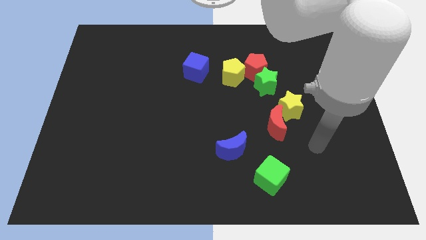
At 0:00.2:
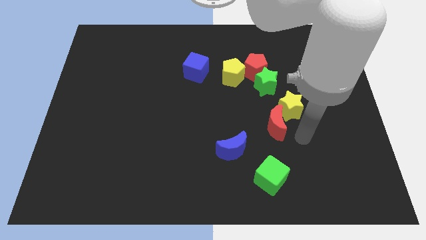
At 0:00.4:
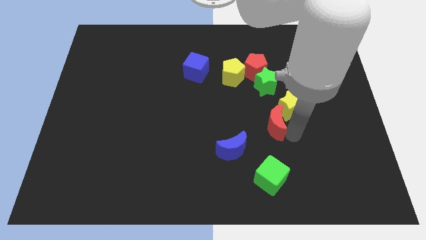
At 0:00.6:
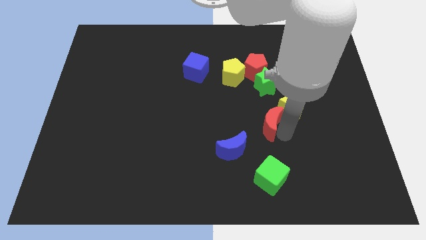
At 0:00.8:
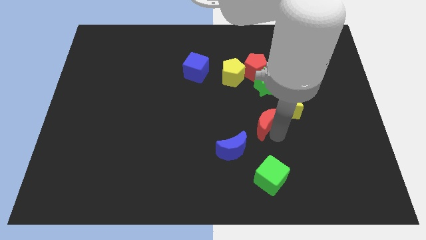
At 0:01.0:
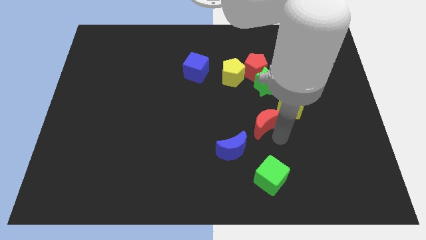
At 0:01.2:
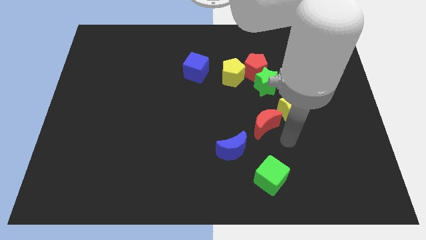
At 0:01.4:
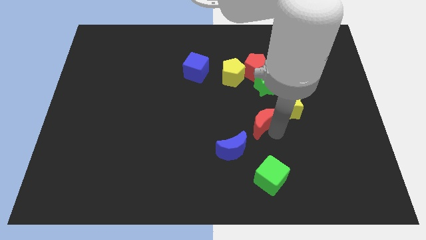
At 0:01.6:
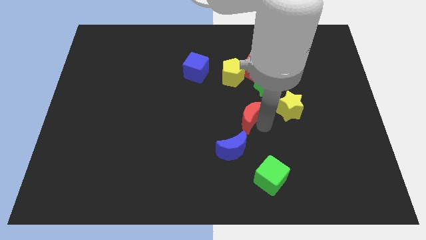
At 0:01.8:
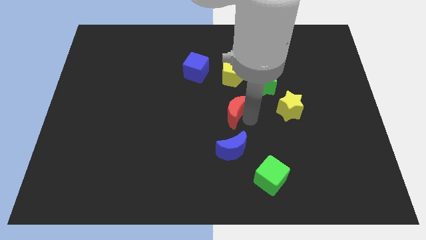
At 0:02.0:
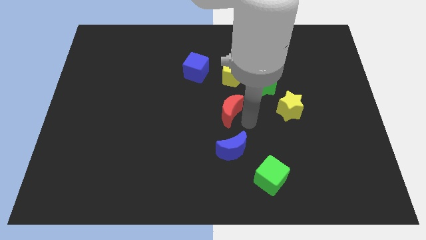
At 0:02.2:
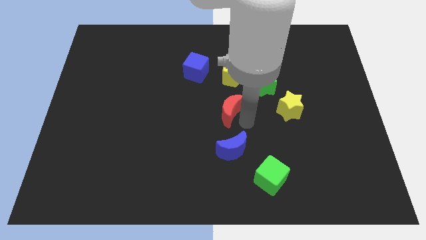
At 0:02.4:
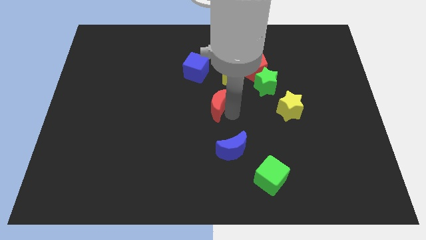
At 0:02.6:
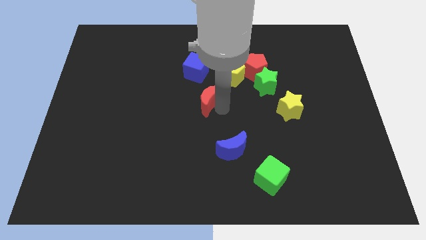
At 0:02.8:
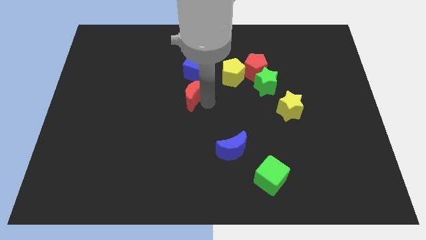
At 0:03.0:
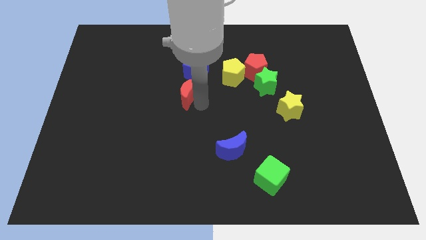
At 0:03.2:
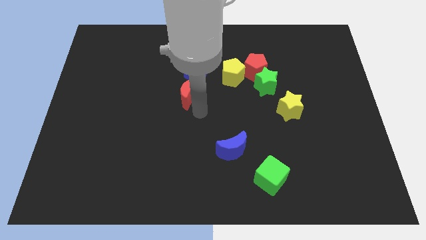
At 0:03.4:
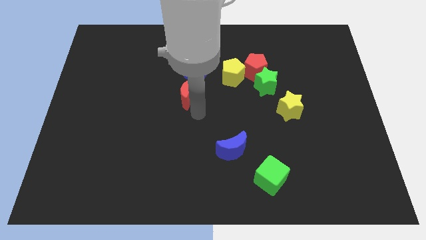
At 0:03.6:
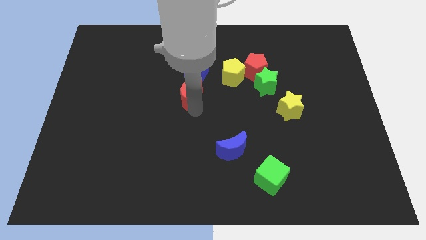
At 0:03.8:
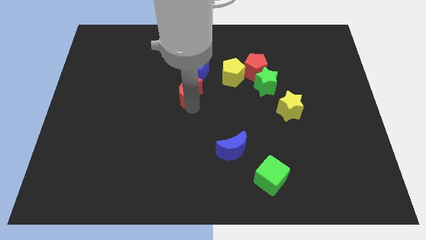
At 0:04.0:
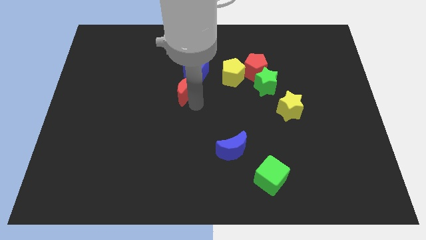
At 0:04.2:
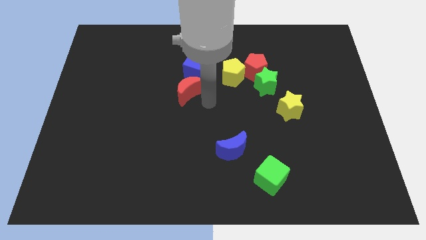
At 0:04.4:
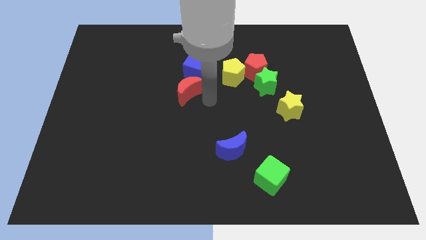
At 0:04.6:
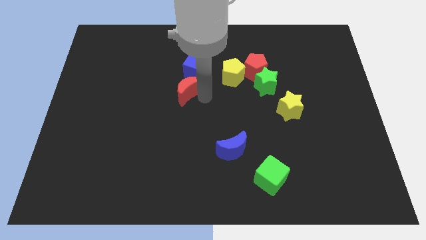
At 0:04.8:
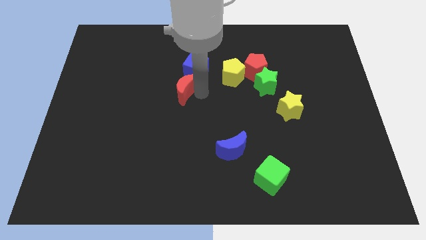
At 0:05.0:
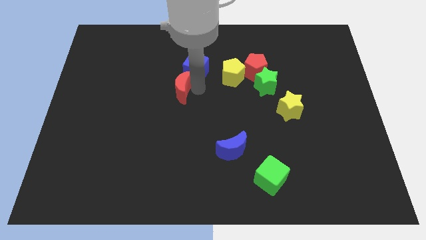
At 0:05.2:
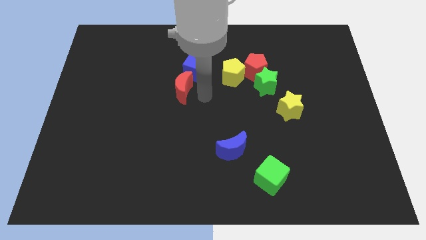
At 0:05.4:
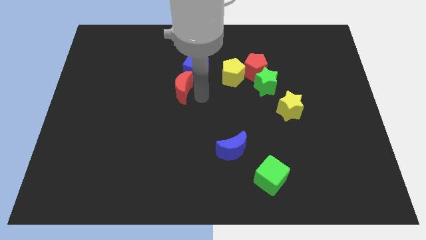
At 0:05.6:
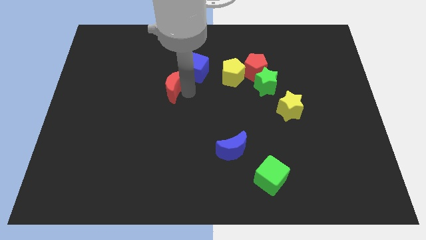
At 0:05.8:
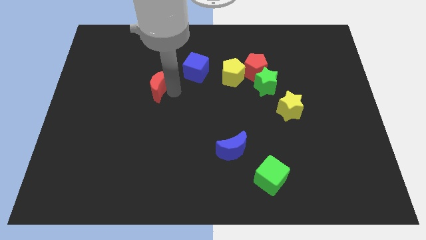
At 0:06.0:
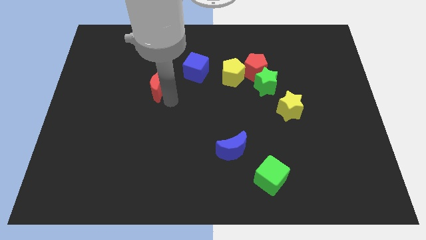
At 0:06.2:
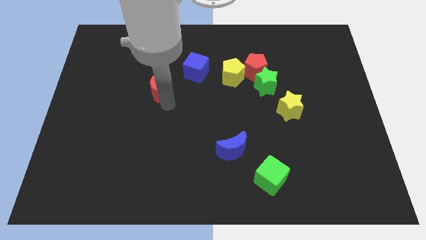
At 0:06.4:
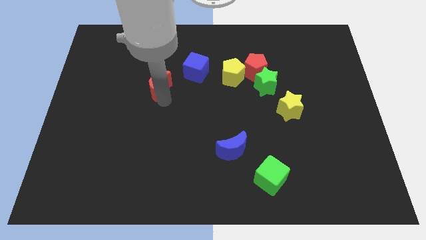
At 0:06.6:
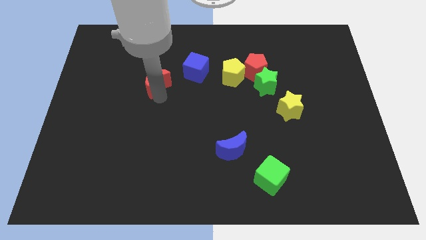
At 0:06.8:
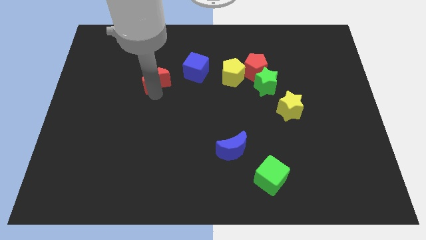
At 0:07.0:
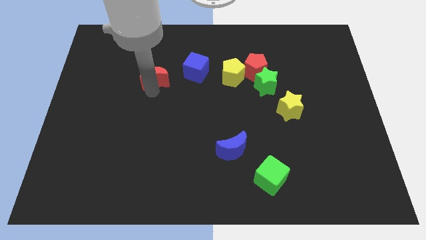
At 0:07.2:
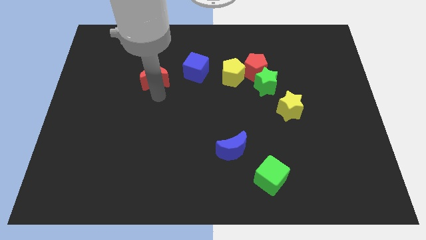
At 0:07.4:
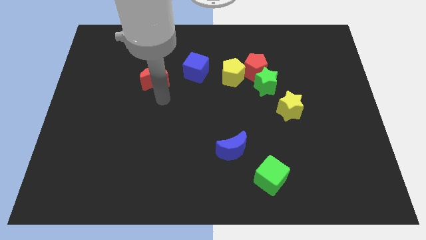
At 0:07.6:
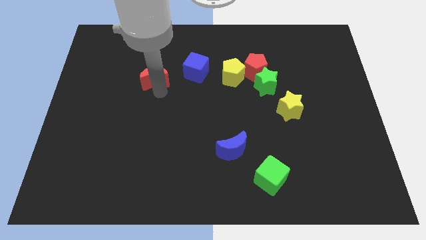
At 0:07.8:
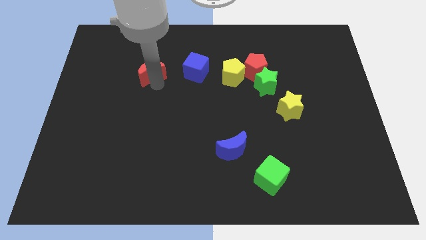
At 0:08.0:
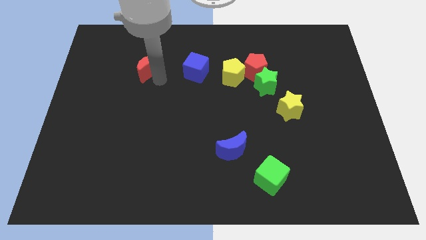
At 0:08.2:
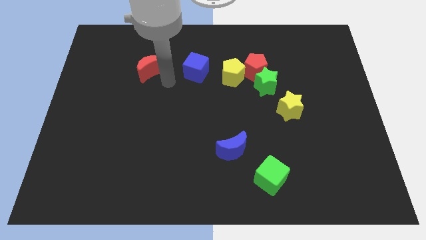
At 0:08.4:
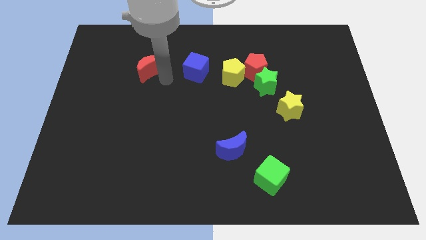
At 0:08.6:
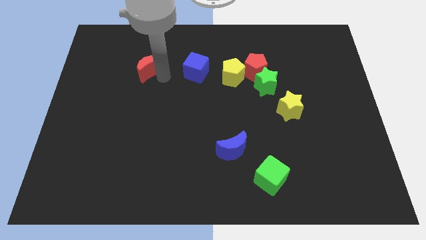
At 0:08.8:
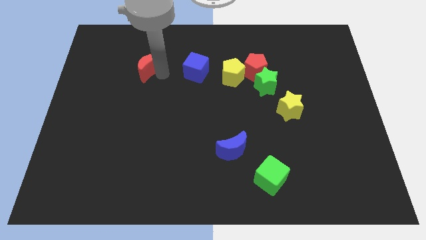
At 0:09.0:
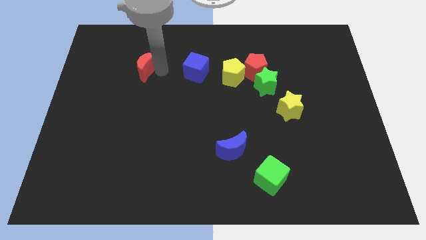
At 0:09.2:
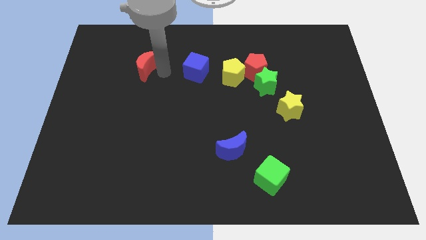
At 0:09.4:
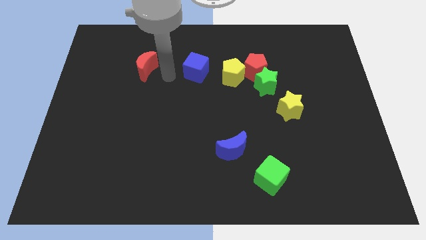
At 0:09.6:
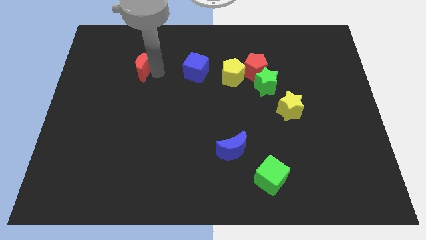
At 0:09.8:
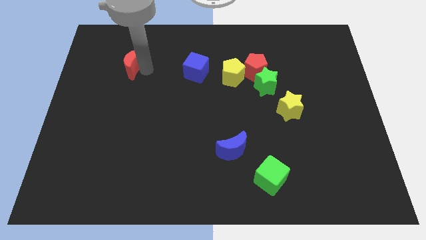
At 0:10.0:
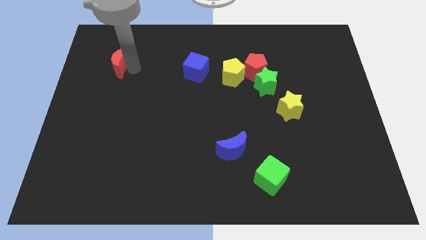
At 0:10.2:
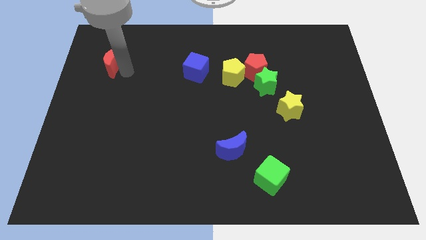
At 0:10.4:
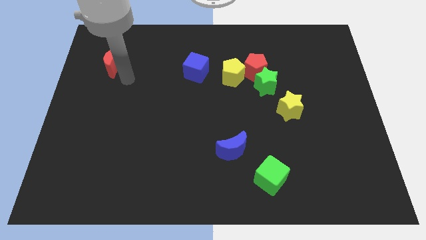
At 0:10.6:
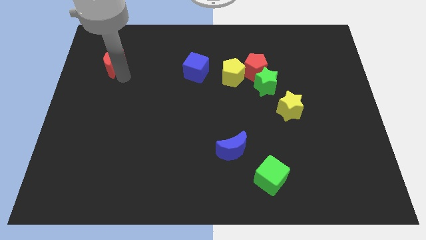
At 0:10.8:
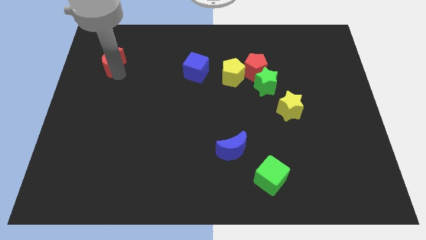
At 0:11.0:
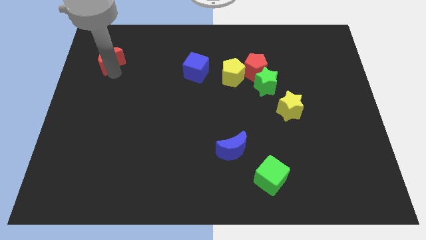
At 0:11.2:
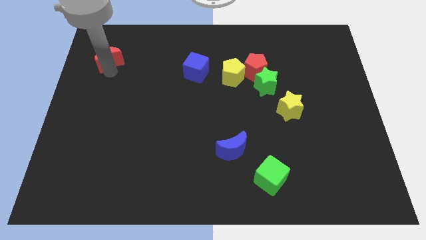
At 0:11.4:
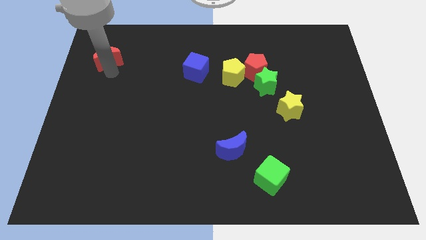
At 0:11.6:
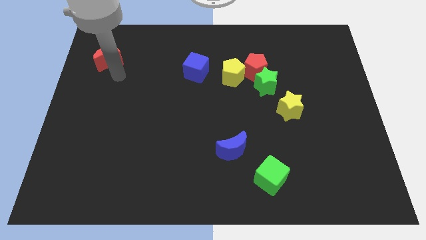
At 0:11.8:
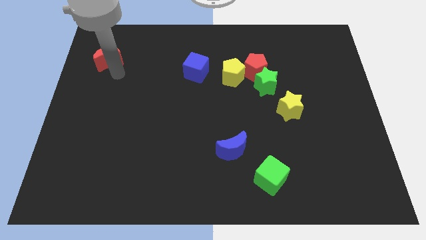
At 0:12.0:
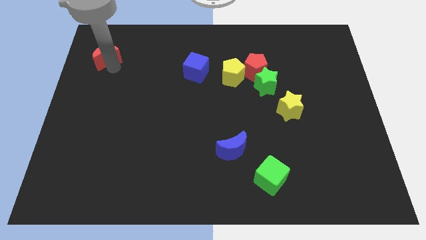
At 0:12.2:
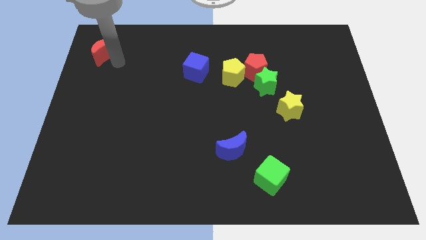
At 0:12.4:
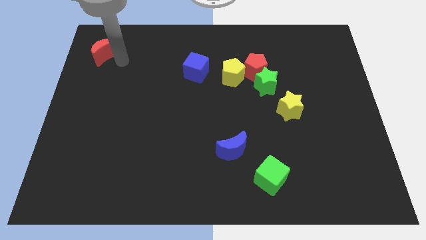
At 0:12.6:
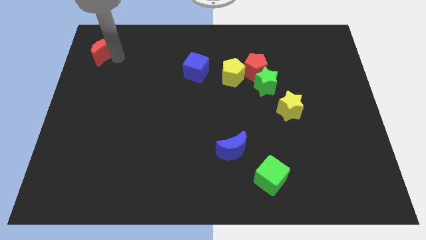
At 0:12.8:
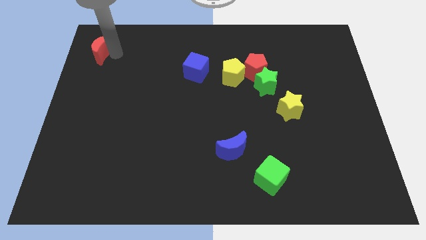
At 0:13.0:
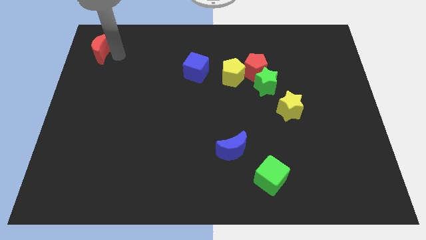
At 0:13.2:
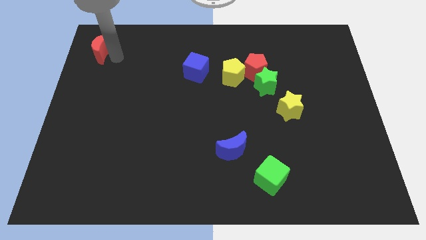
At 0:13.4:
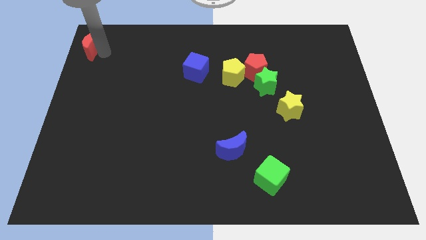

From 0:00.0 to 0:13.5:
slide the red moon to the top left of the board

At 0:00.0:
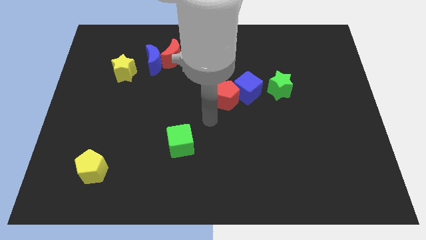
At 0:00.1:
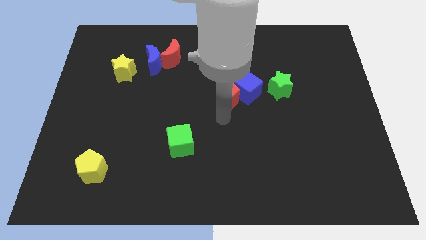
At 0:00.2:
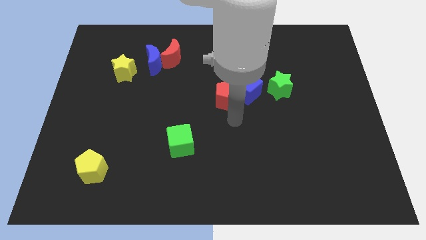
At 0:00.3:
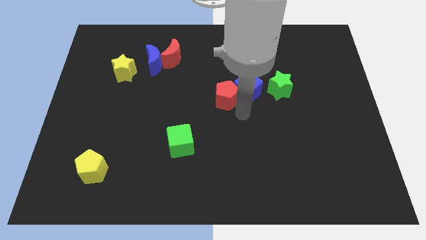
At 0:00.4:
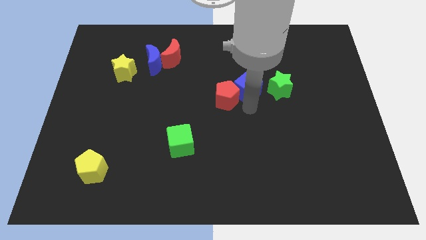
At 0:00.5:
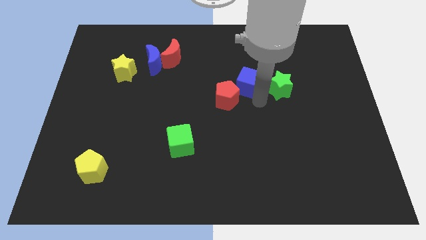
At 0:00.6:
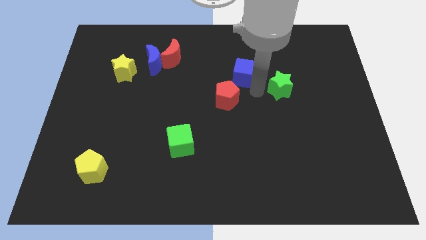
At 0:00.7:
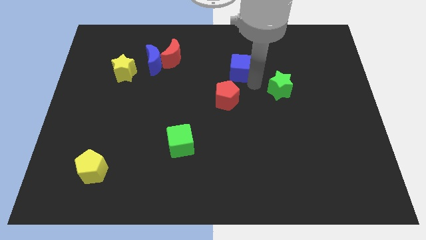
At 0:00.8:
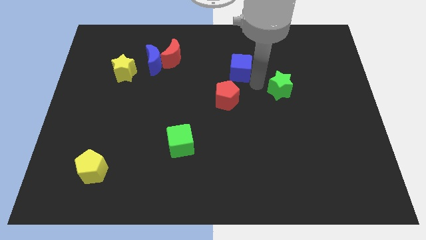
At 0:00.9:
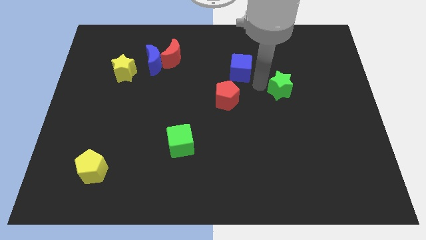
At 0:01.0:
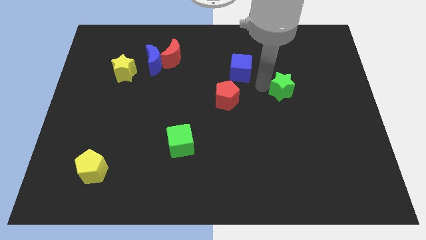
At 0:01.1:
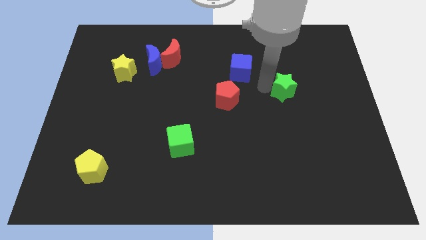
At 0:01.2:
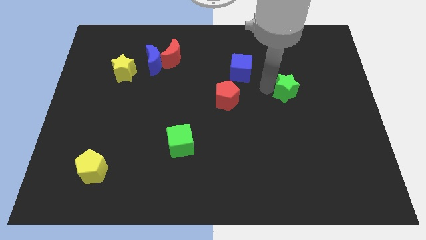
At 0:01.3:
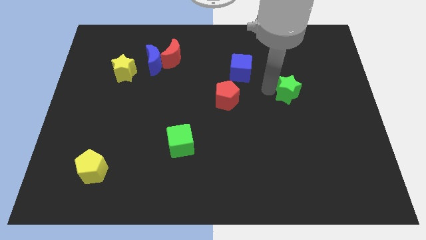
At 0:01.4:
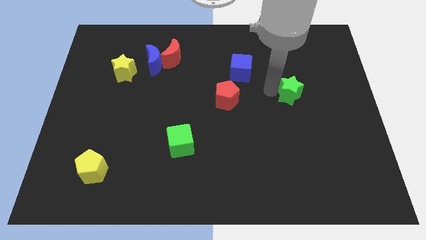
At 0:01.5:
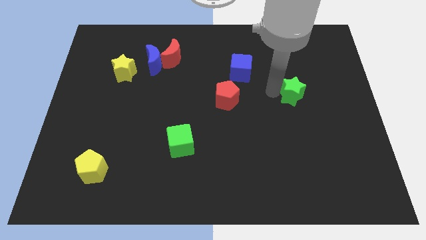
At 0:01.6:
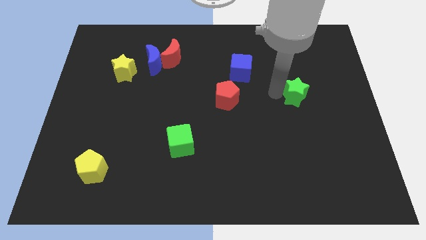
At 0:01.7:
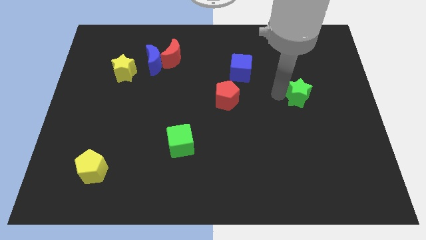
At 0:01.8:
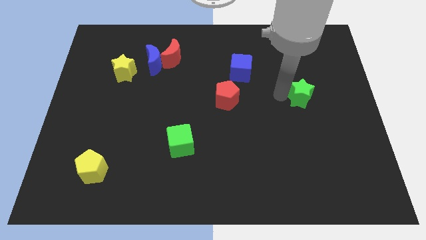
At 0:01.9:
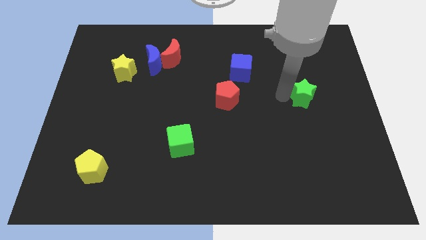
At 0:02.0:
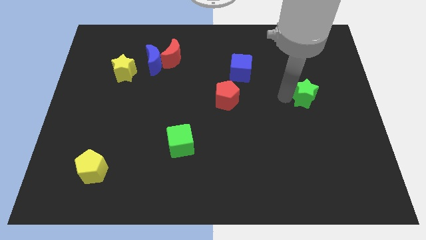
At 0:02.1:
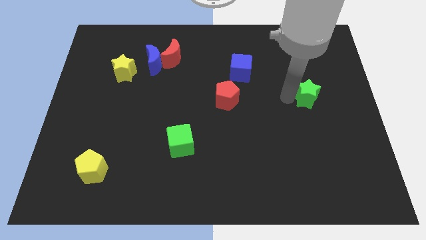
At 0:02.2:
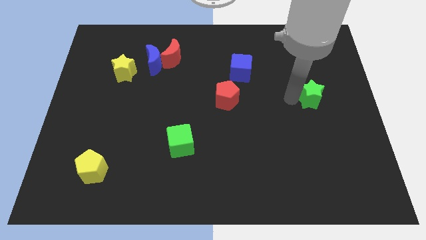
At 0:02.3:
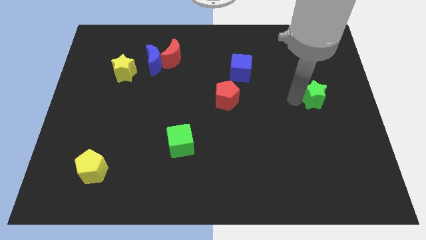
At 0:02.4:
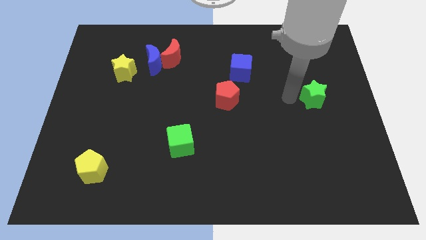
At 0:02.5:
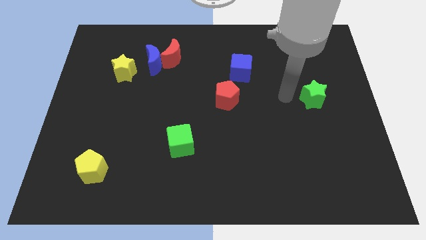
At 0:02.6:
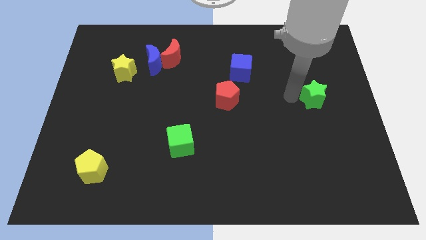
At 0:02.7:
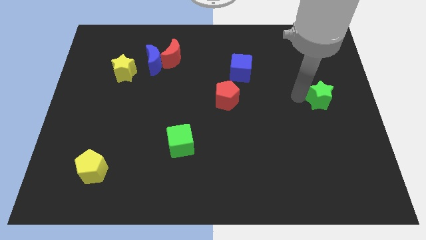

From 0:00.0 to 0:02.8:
move the green star to the center right
